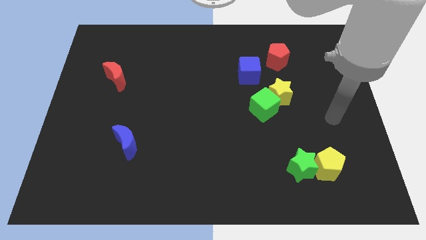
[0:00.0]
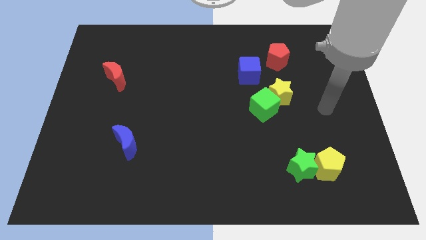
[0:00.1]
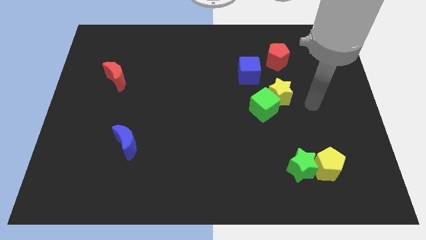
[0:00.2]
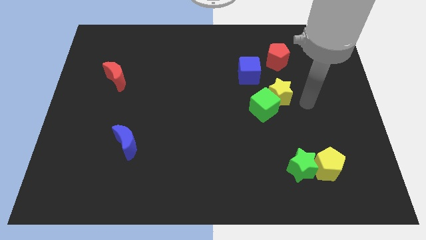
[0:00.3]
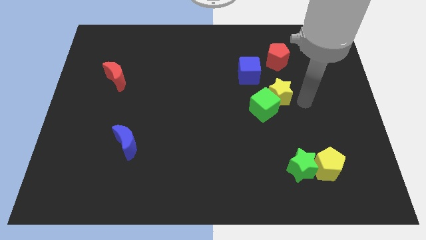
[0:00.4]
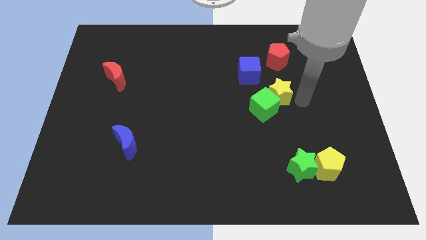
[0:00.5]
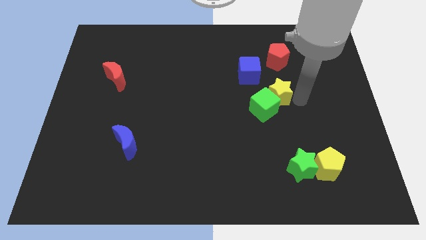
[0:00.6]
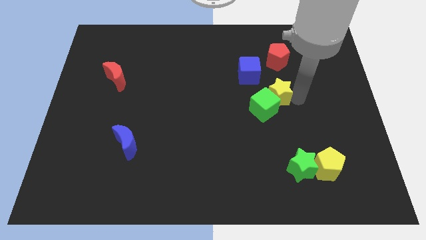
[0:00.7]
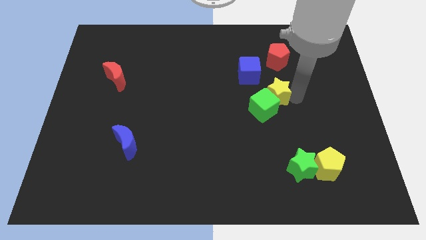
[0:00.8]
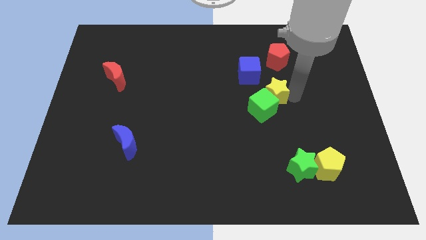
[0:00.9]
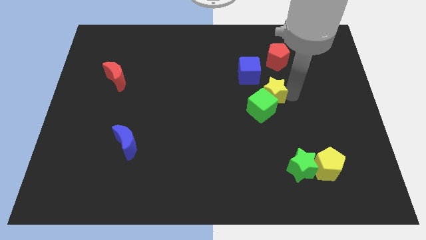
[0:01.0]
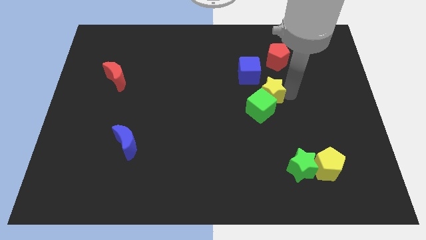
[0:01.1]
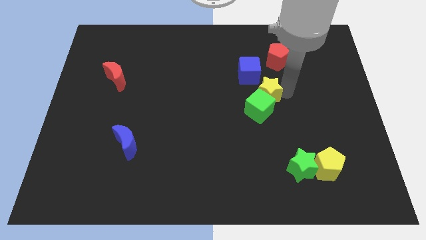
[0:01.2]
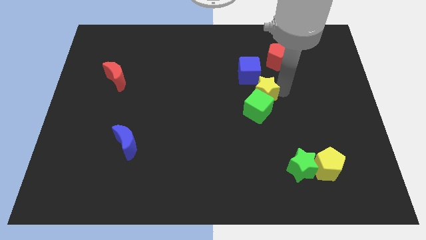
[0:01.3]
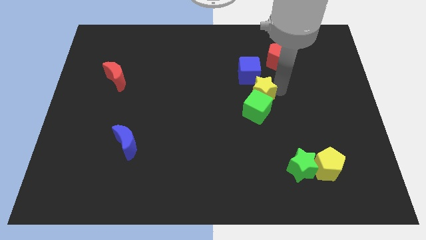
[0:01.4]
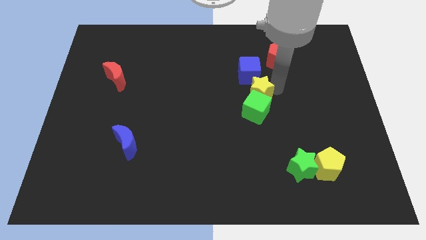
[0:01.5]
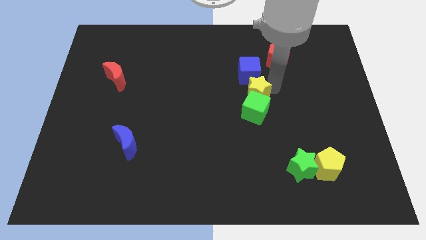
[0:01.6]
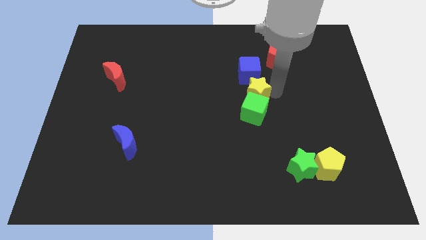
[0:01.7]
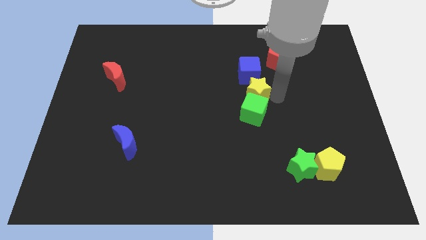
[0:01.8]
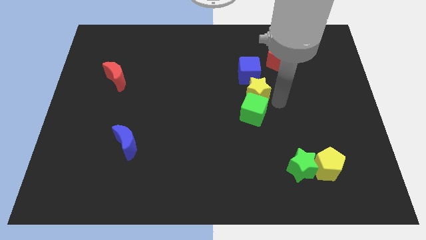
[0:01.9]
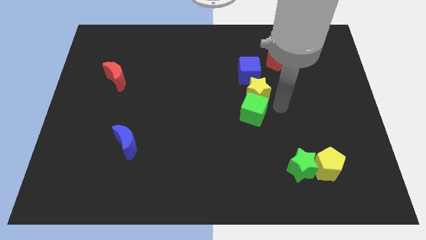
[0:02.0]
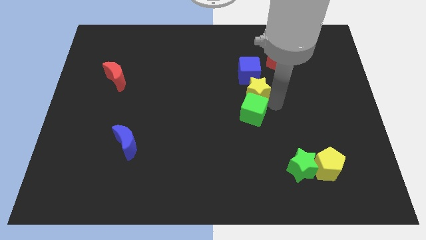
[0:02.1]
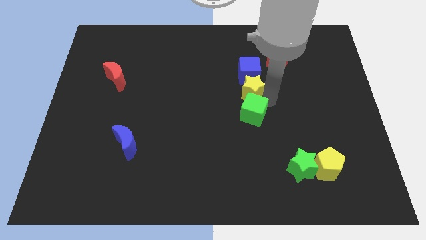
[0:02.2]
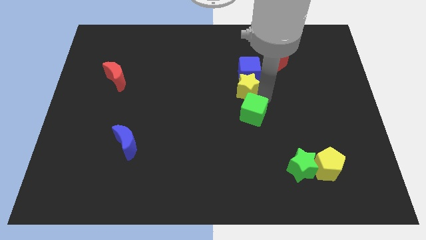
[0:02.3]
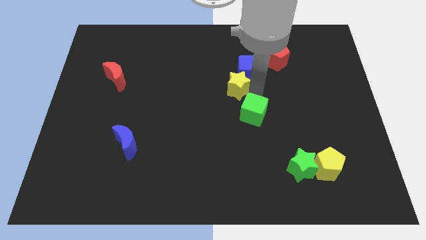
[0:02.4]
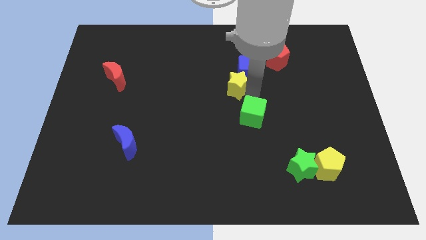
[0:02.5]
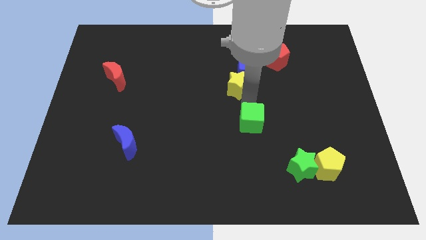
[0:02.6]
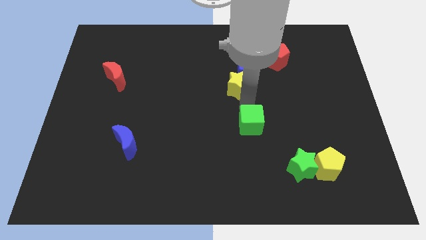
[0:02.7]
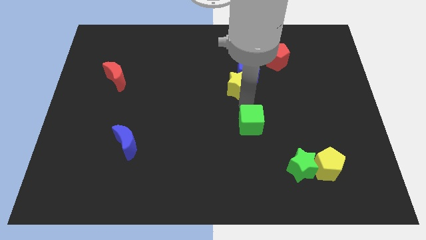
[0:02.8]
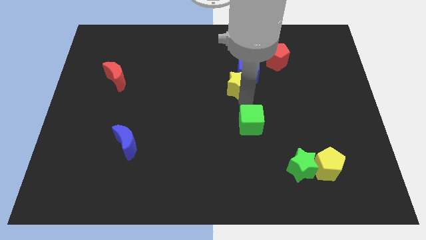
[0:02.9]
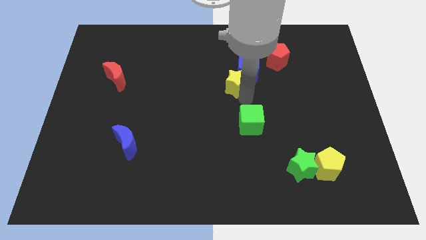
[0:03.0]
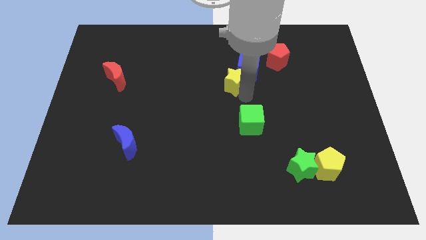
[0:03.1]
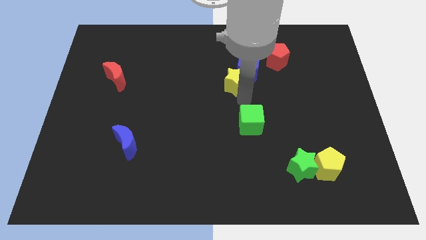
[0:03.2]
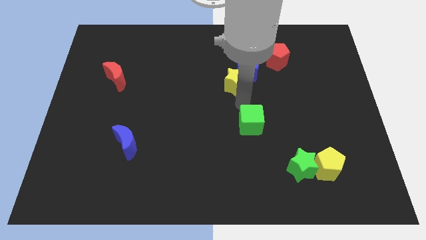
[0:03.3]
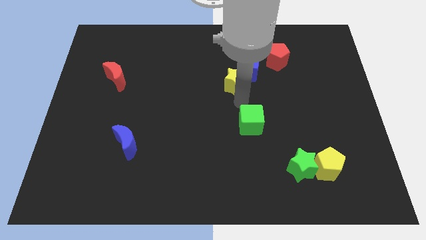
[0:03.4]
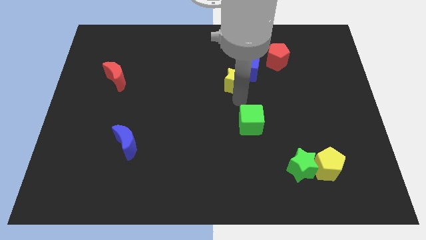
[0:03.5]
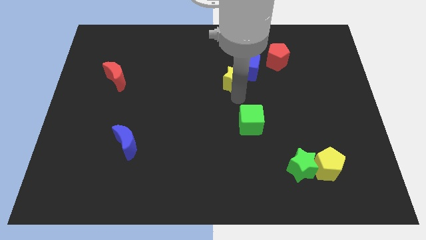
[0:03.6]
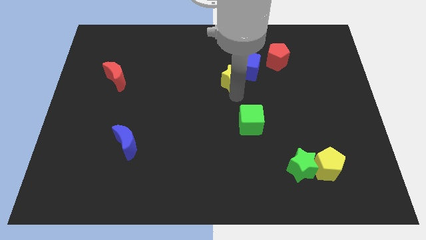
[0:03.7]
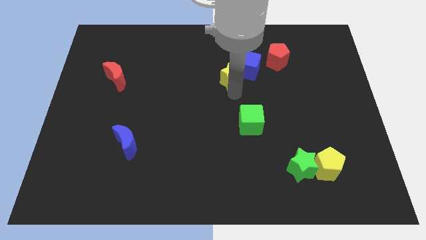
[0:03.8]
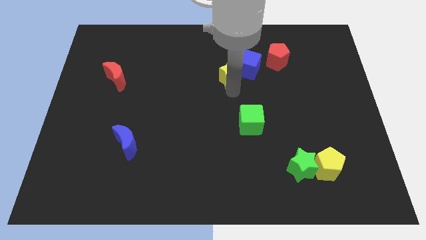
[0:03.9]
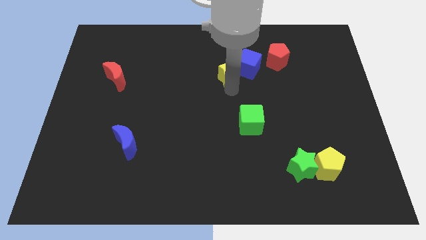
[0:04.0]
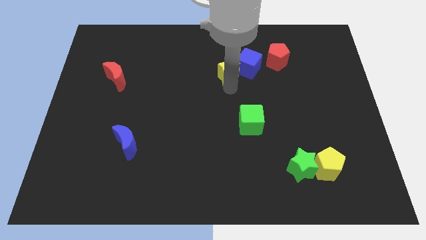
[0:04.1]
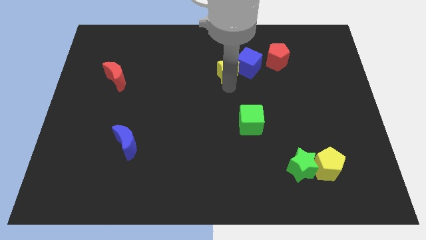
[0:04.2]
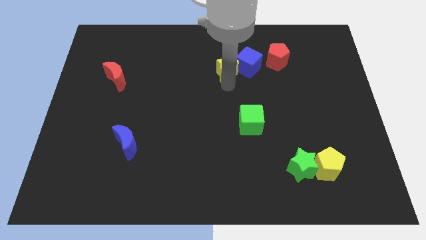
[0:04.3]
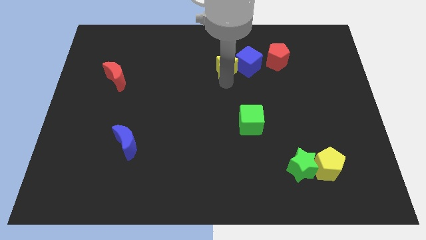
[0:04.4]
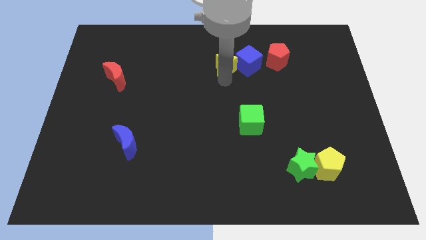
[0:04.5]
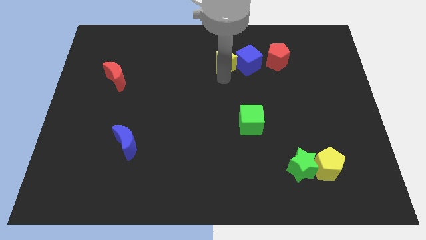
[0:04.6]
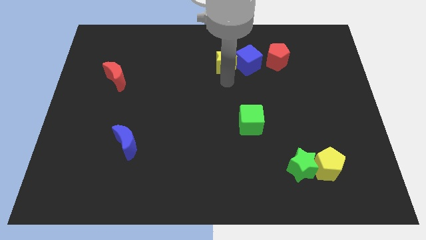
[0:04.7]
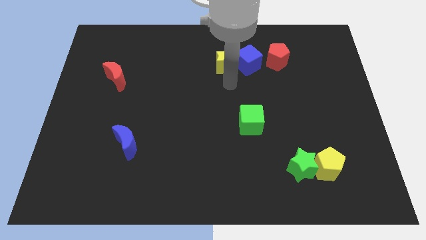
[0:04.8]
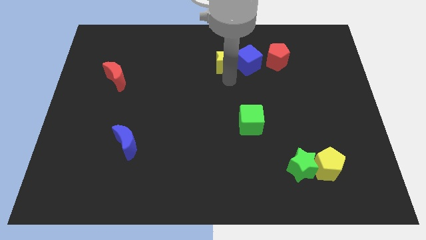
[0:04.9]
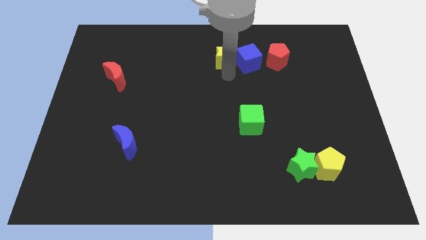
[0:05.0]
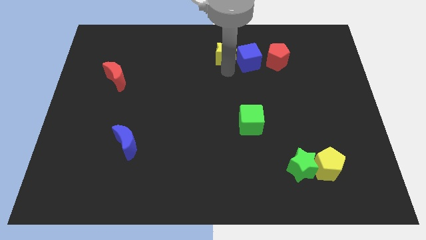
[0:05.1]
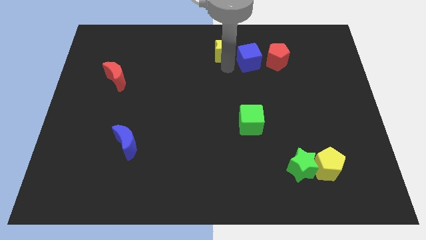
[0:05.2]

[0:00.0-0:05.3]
slide the yellow star to the top side

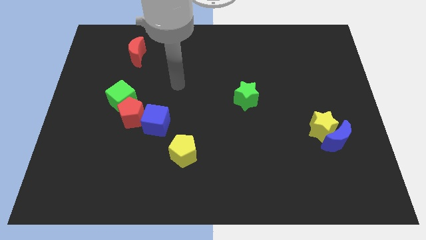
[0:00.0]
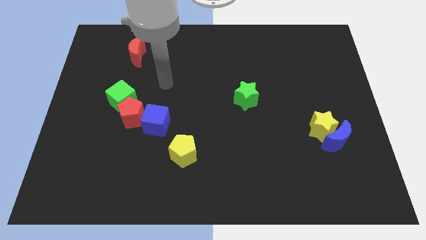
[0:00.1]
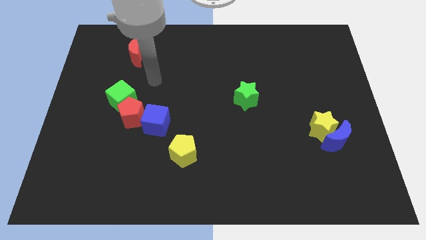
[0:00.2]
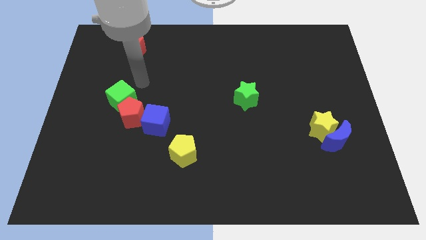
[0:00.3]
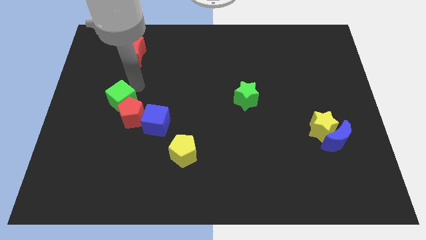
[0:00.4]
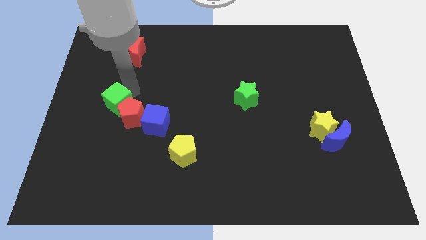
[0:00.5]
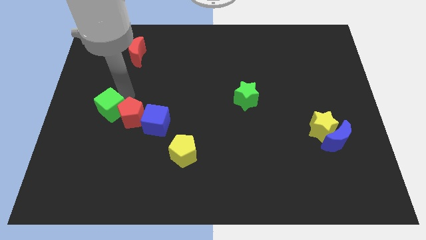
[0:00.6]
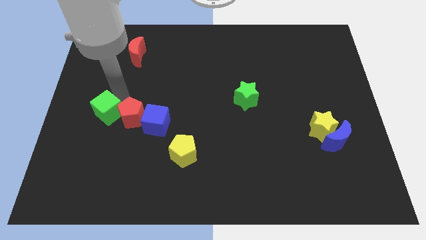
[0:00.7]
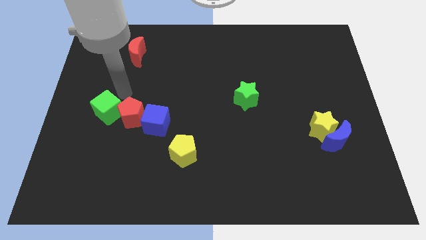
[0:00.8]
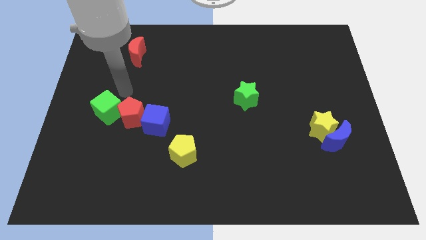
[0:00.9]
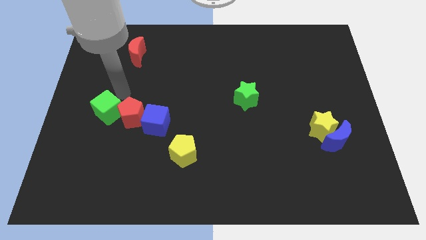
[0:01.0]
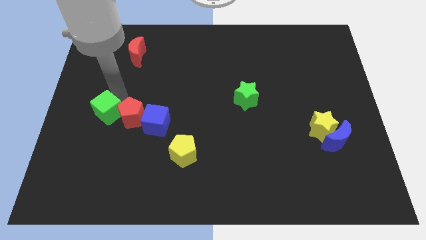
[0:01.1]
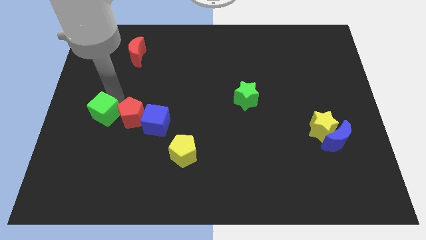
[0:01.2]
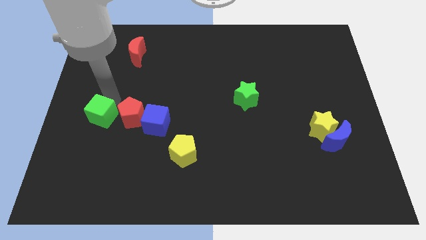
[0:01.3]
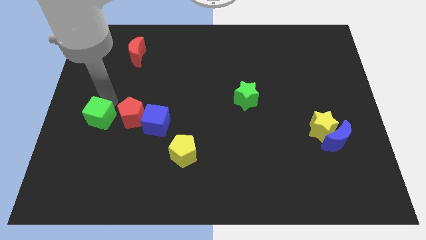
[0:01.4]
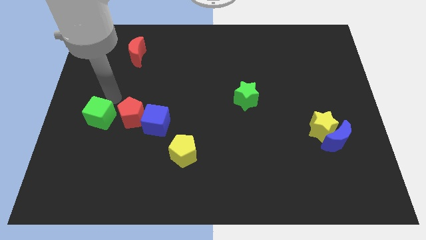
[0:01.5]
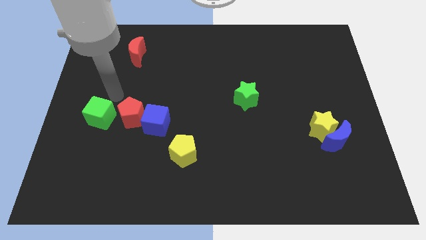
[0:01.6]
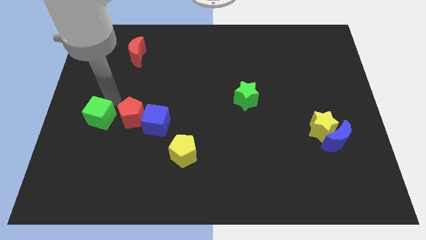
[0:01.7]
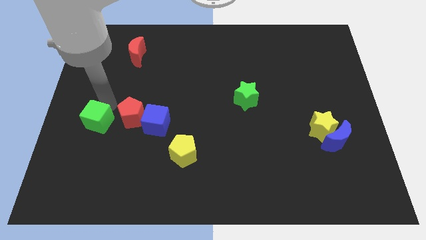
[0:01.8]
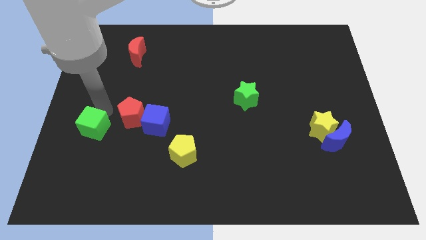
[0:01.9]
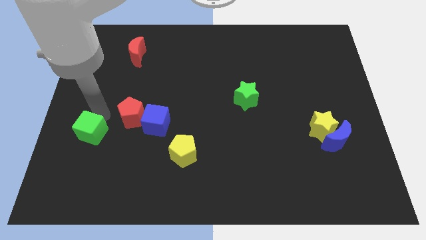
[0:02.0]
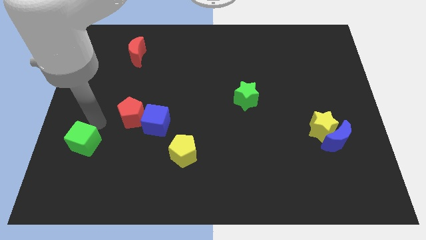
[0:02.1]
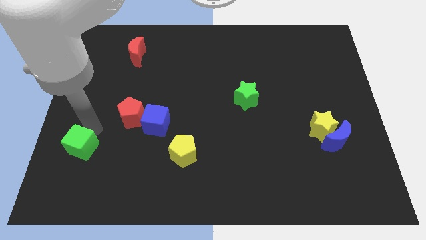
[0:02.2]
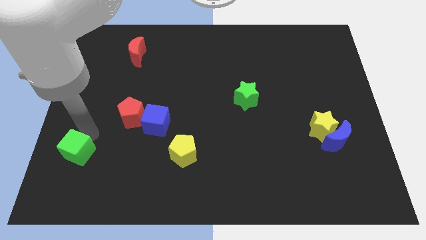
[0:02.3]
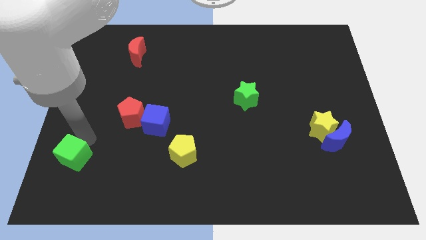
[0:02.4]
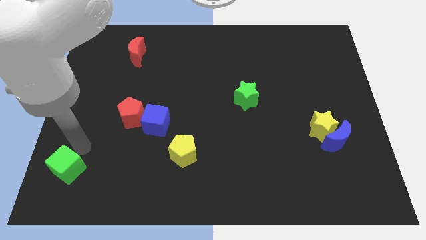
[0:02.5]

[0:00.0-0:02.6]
put the green cube to the lower left corner
